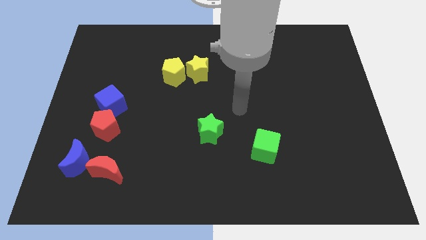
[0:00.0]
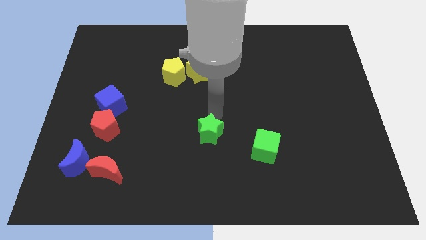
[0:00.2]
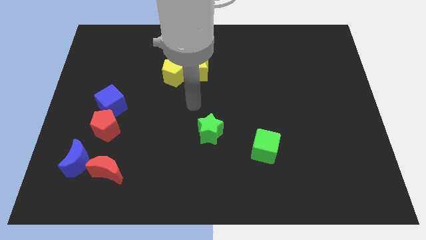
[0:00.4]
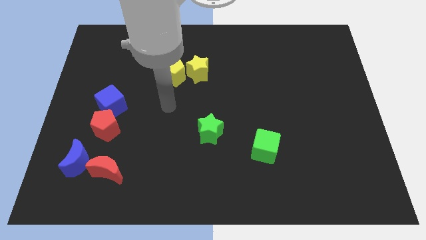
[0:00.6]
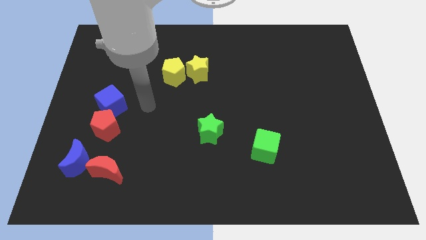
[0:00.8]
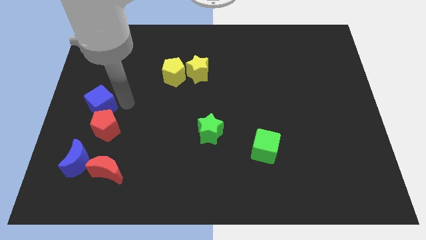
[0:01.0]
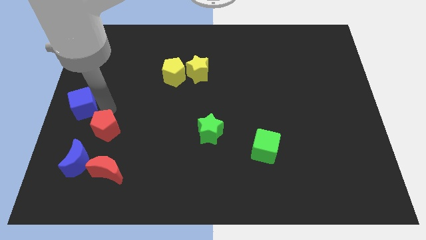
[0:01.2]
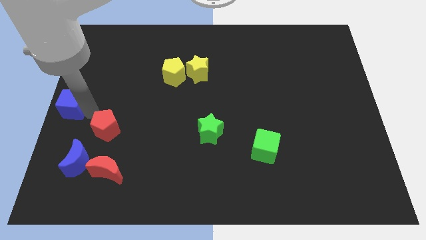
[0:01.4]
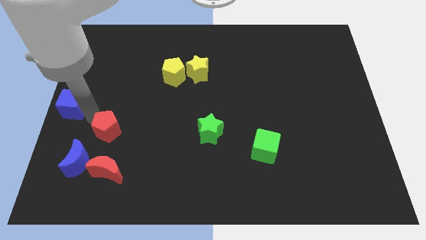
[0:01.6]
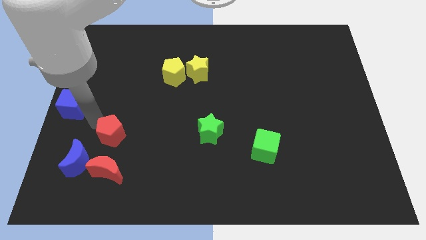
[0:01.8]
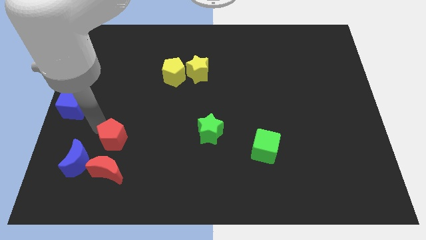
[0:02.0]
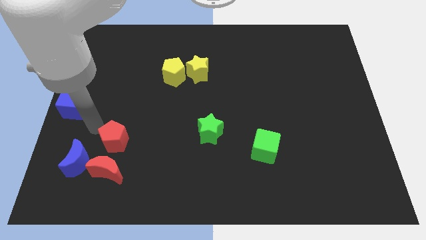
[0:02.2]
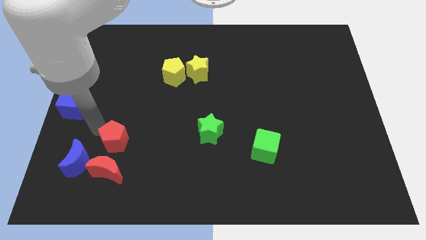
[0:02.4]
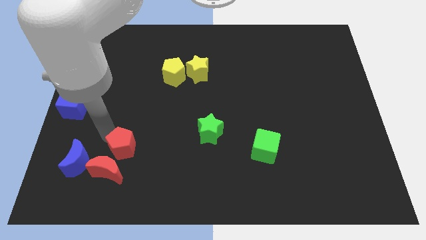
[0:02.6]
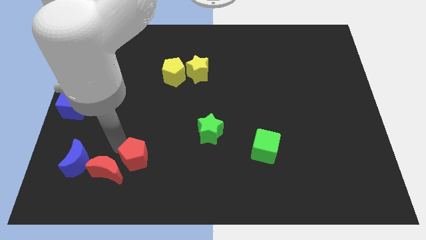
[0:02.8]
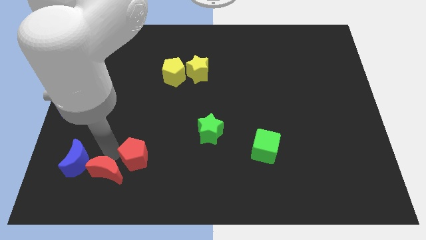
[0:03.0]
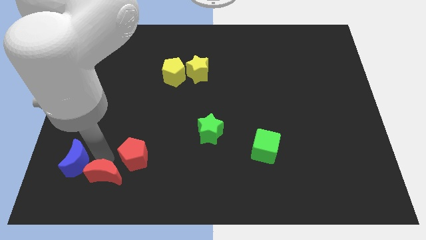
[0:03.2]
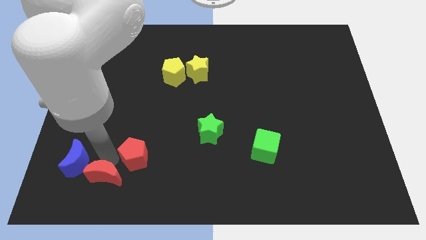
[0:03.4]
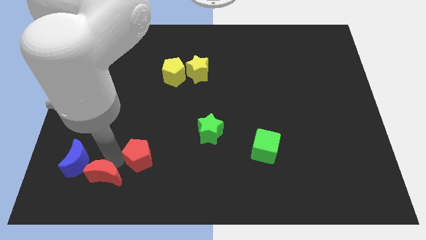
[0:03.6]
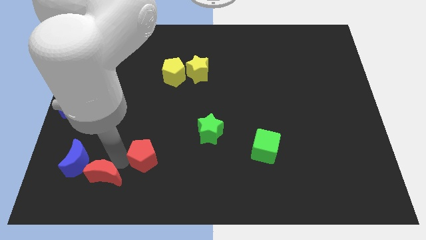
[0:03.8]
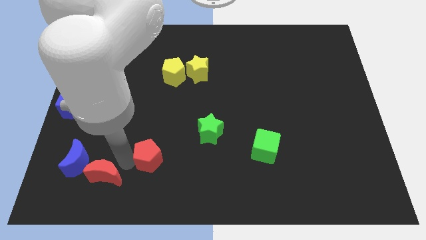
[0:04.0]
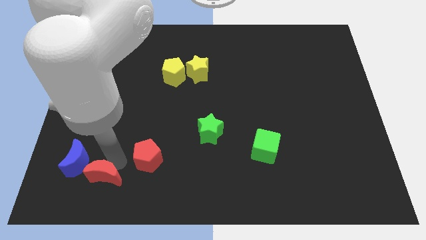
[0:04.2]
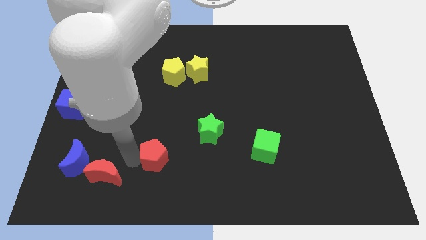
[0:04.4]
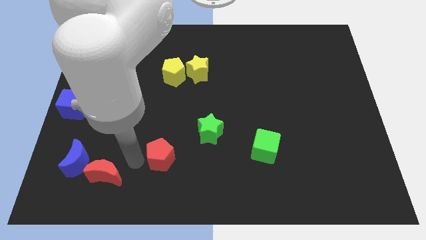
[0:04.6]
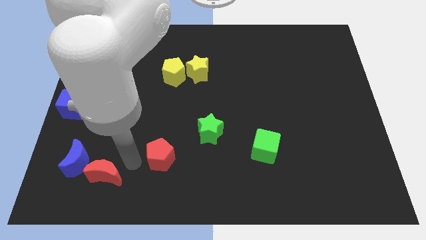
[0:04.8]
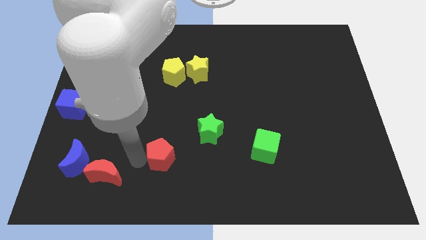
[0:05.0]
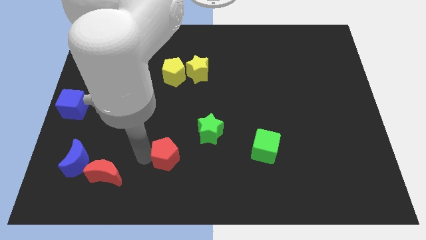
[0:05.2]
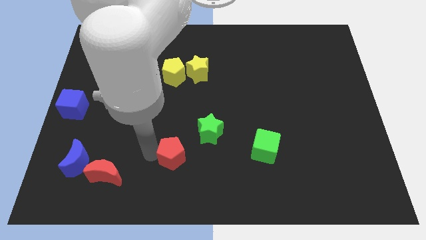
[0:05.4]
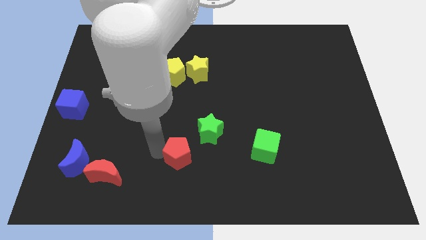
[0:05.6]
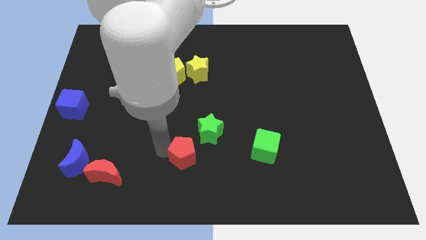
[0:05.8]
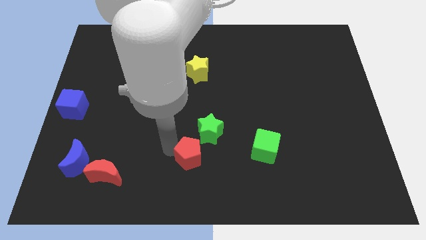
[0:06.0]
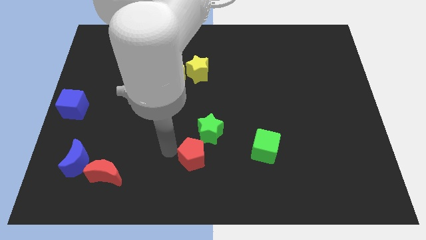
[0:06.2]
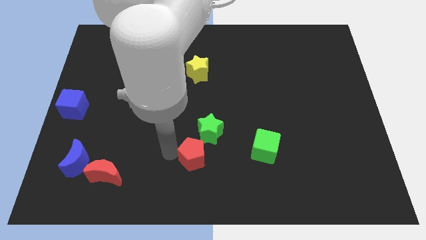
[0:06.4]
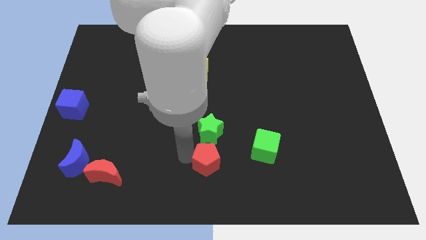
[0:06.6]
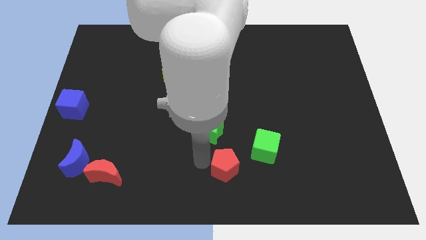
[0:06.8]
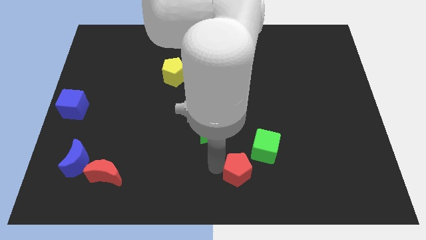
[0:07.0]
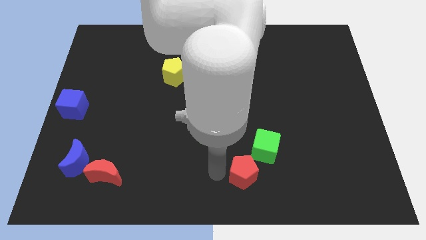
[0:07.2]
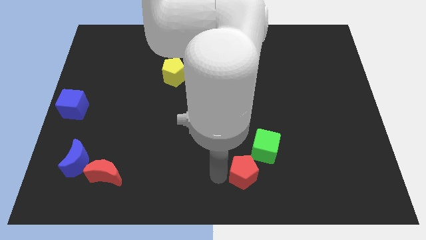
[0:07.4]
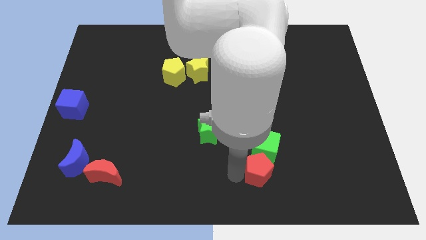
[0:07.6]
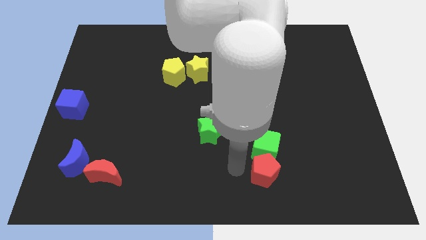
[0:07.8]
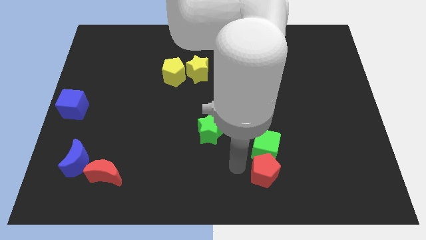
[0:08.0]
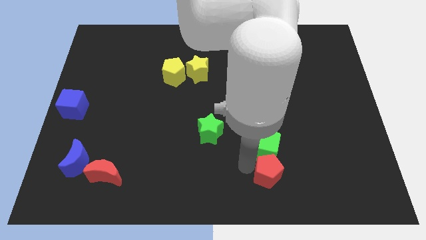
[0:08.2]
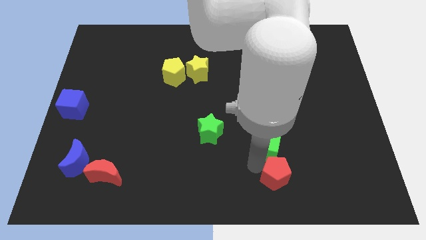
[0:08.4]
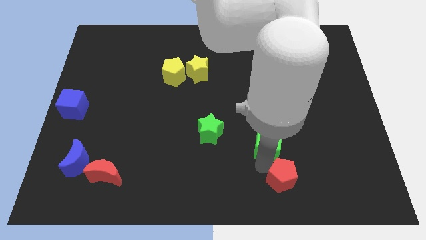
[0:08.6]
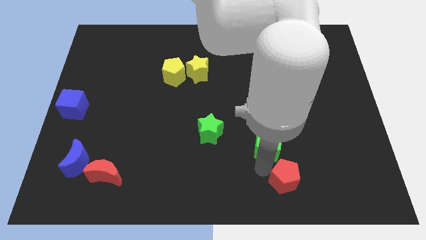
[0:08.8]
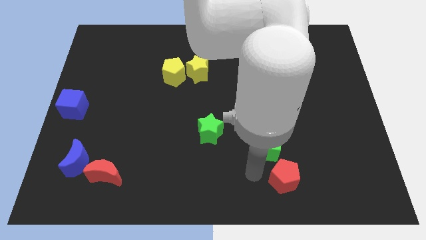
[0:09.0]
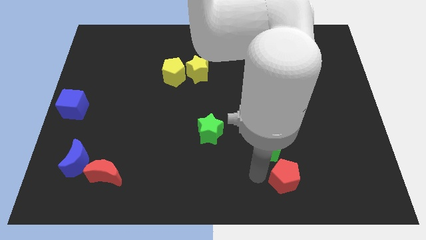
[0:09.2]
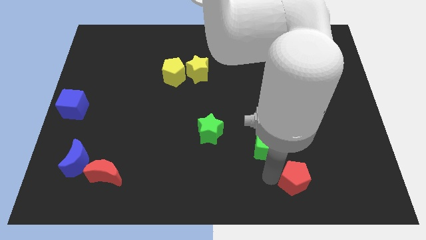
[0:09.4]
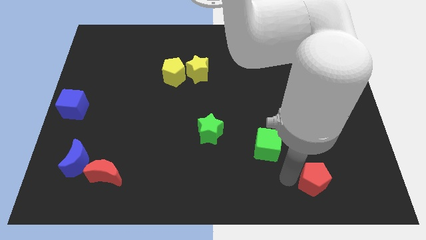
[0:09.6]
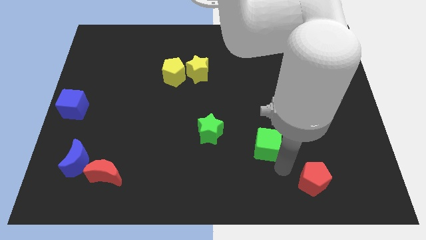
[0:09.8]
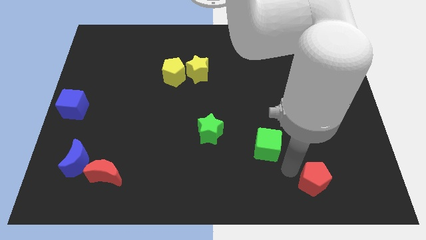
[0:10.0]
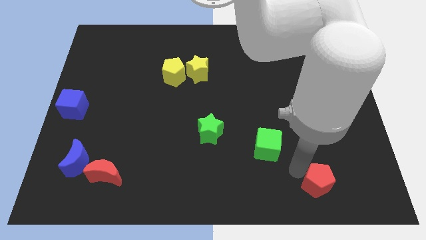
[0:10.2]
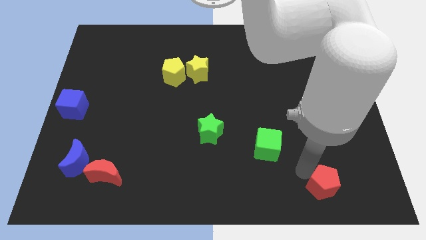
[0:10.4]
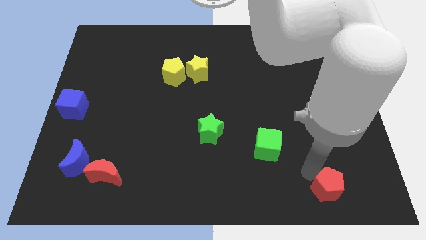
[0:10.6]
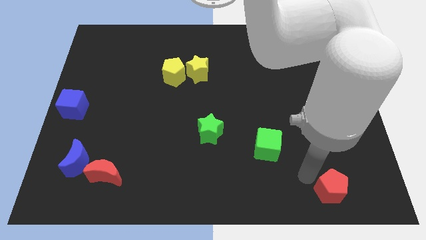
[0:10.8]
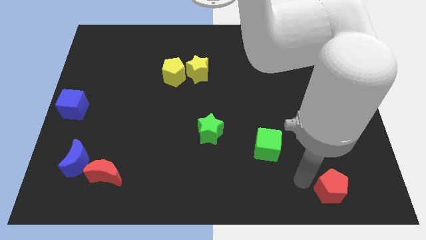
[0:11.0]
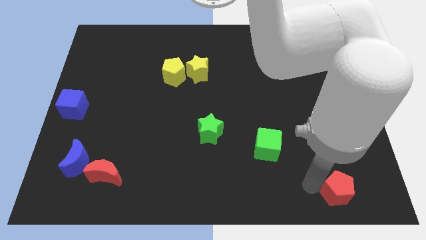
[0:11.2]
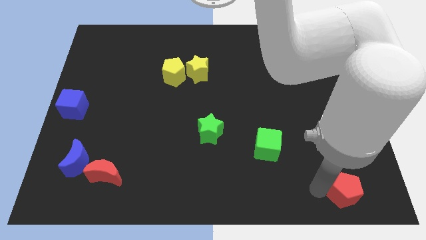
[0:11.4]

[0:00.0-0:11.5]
push the red pentagon to the bottom right of the board

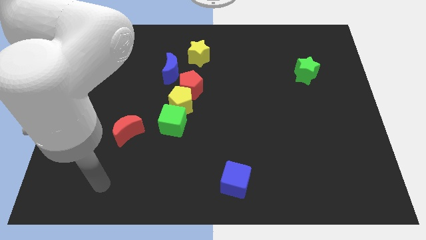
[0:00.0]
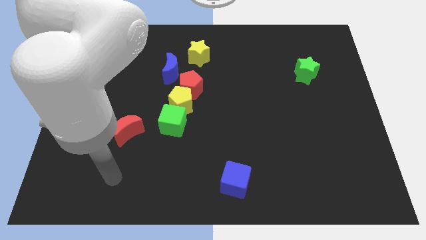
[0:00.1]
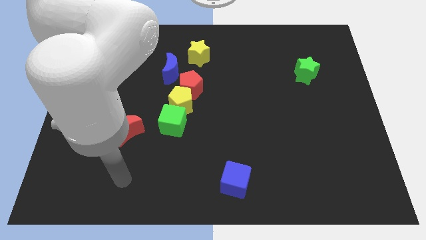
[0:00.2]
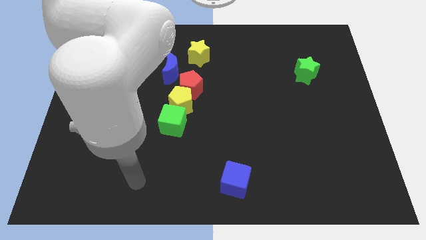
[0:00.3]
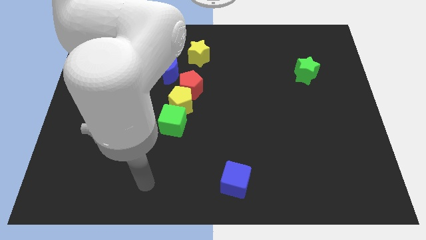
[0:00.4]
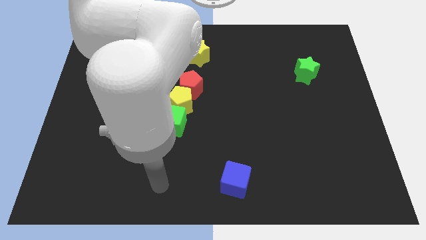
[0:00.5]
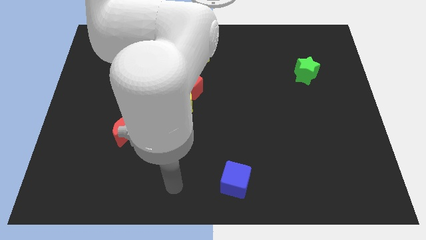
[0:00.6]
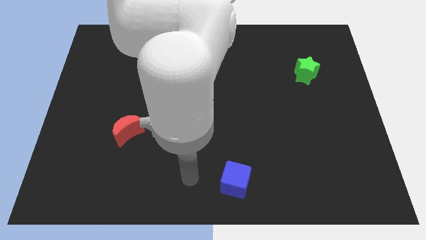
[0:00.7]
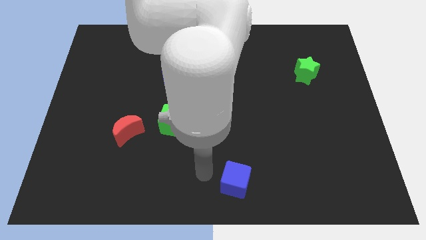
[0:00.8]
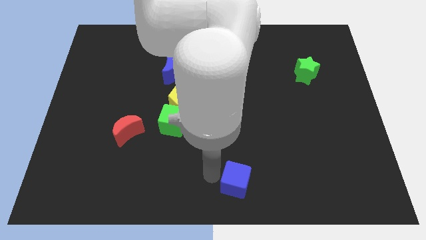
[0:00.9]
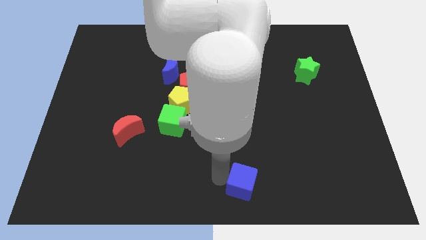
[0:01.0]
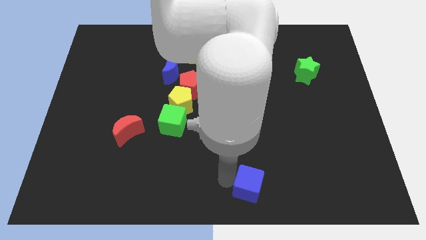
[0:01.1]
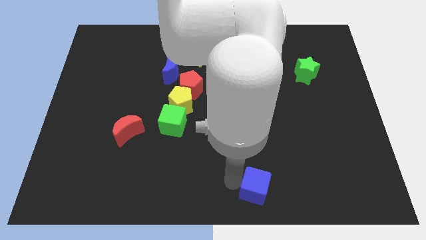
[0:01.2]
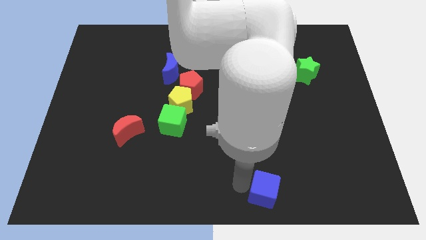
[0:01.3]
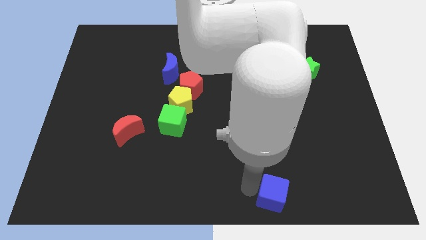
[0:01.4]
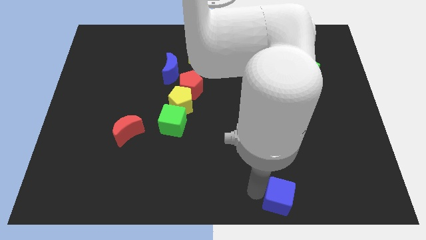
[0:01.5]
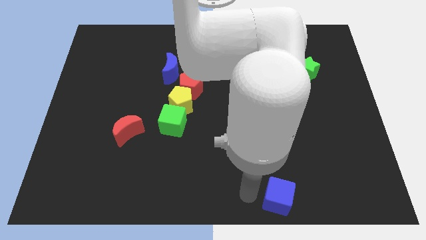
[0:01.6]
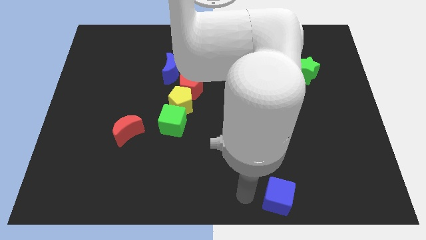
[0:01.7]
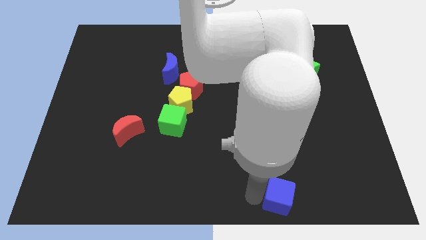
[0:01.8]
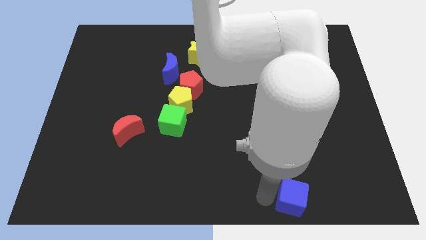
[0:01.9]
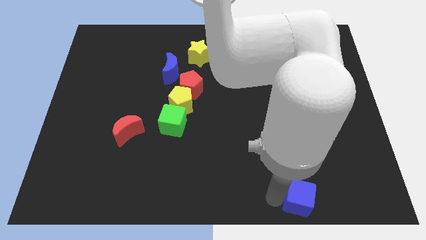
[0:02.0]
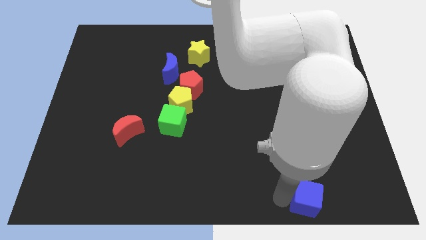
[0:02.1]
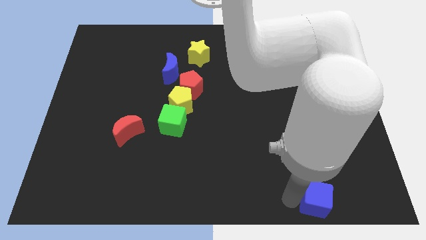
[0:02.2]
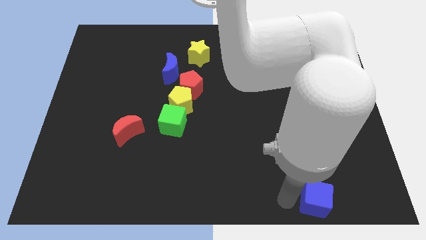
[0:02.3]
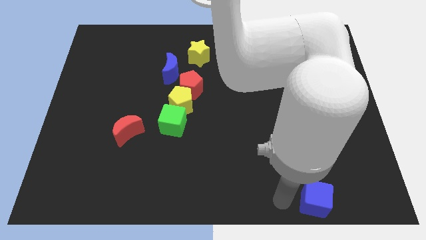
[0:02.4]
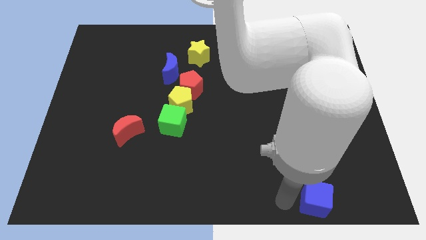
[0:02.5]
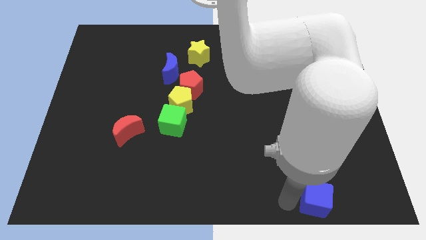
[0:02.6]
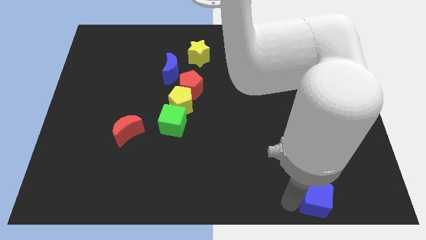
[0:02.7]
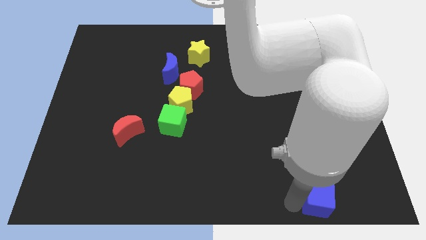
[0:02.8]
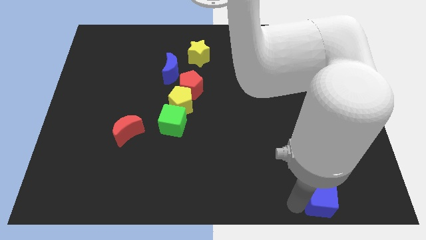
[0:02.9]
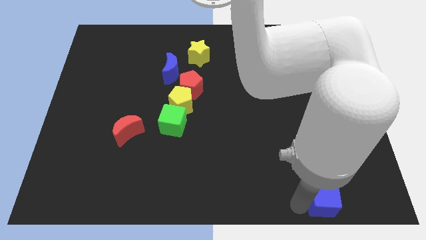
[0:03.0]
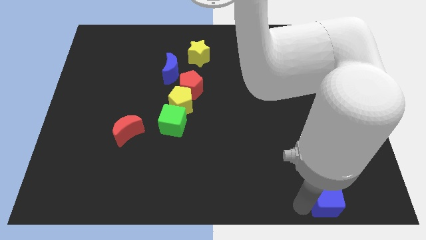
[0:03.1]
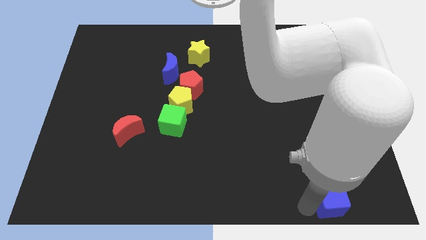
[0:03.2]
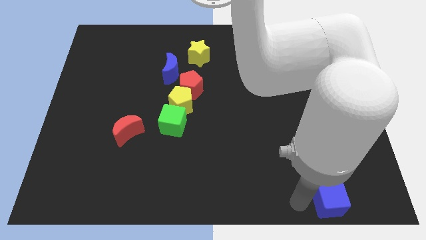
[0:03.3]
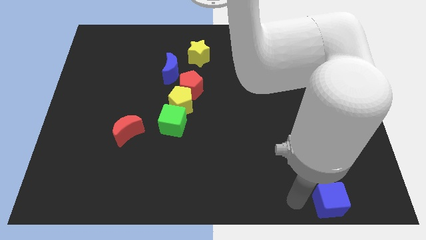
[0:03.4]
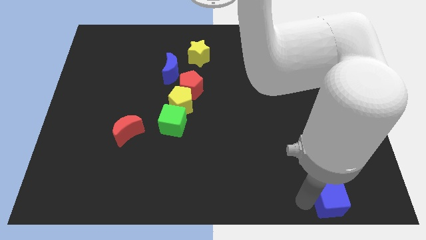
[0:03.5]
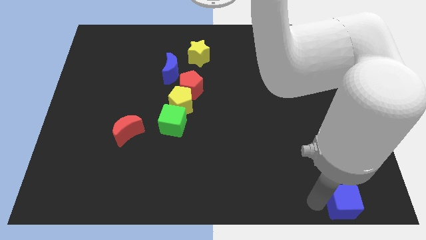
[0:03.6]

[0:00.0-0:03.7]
slide the blue cube to the bottom right
